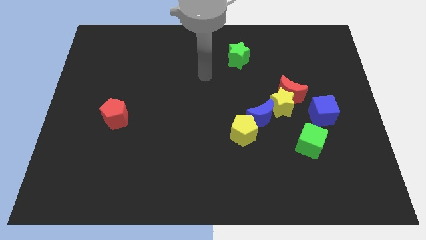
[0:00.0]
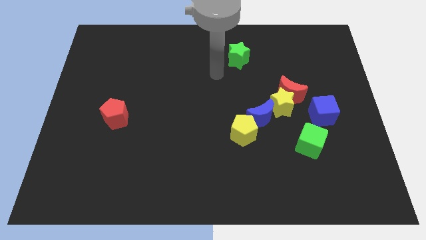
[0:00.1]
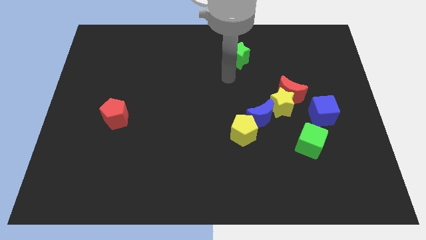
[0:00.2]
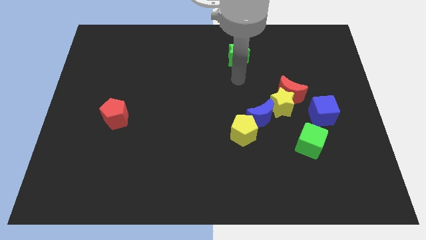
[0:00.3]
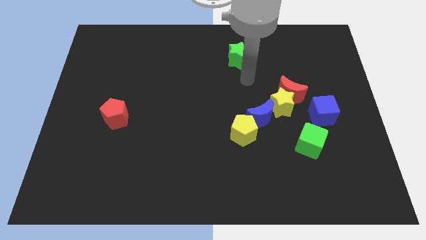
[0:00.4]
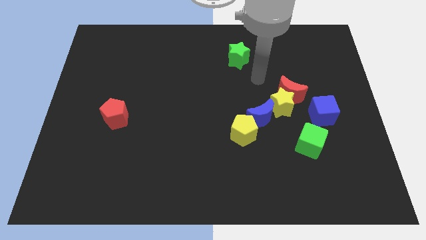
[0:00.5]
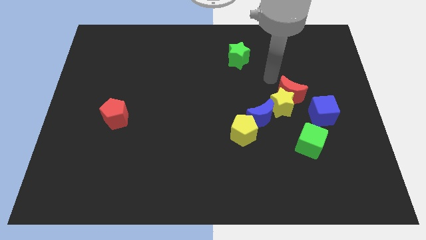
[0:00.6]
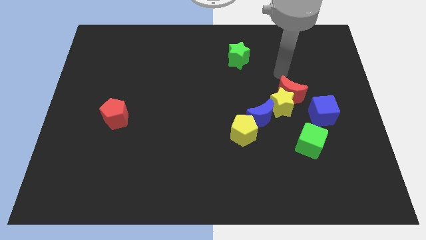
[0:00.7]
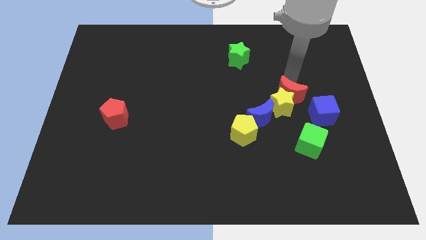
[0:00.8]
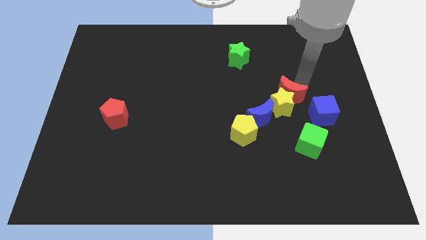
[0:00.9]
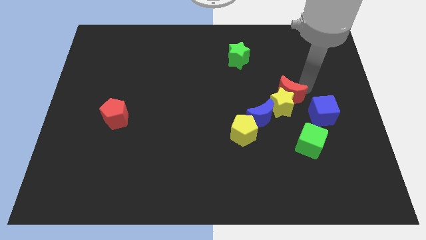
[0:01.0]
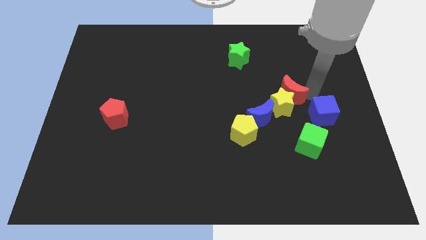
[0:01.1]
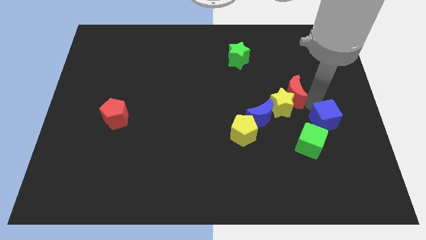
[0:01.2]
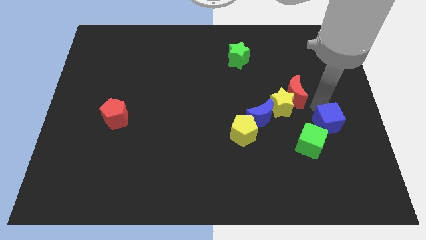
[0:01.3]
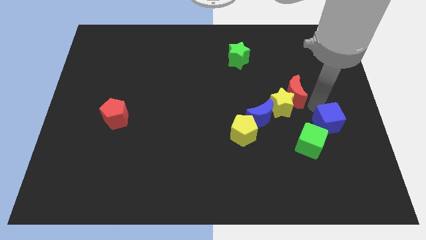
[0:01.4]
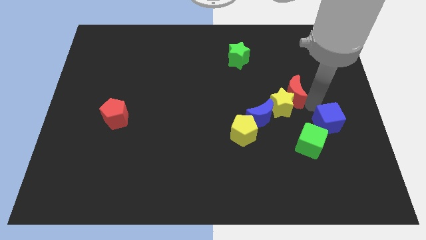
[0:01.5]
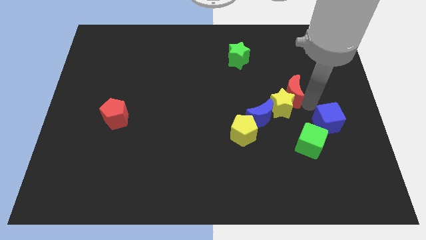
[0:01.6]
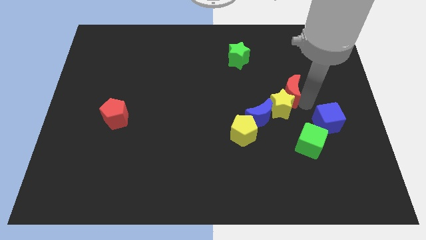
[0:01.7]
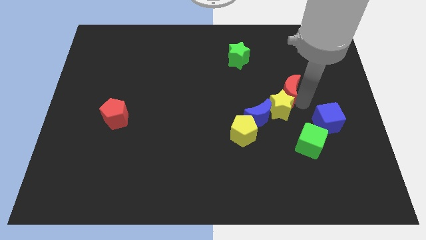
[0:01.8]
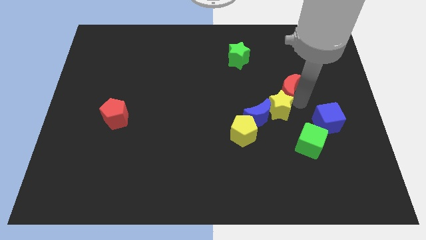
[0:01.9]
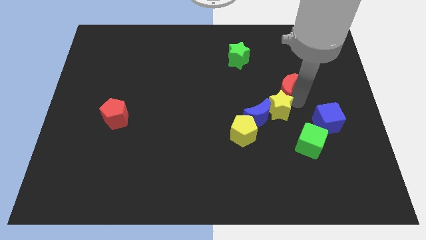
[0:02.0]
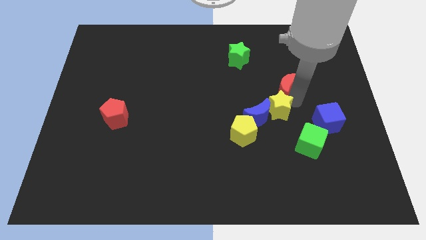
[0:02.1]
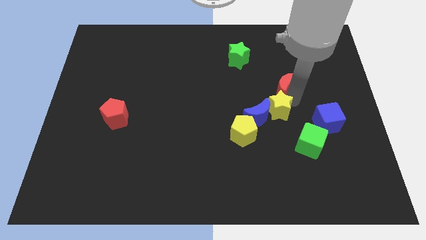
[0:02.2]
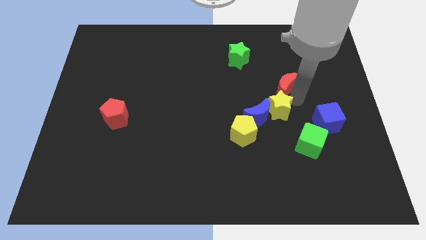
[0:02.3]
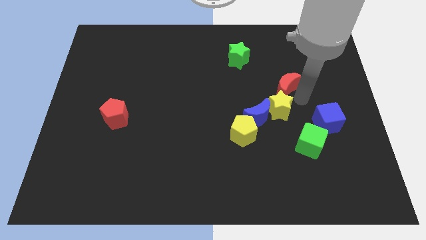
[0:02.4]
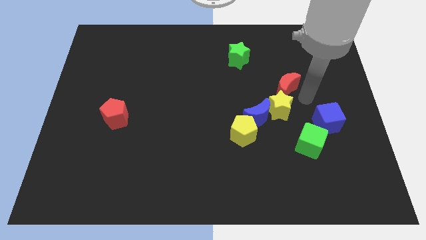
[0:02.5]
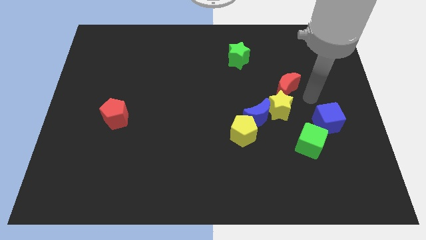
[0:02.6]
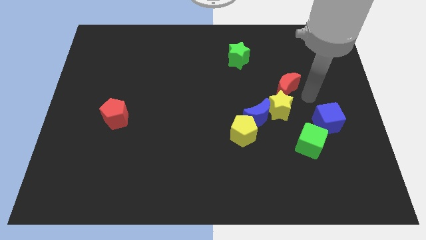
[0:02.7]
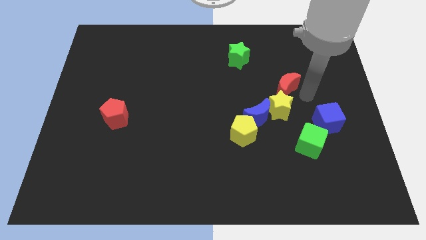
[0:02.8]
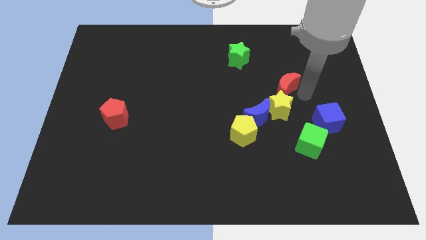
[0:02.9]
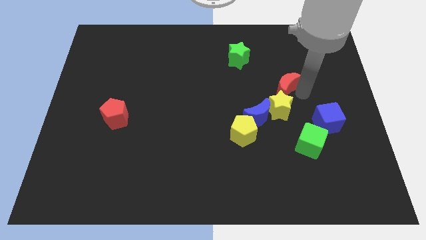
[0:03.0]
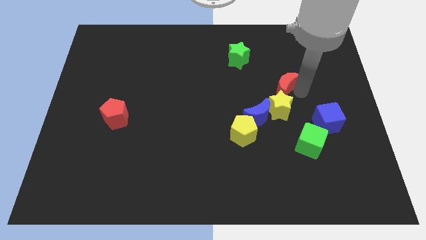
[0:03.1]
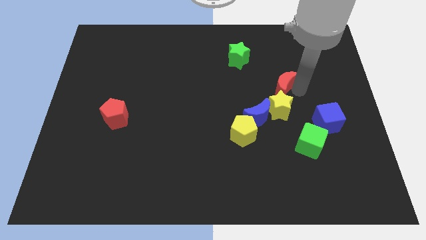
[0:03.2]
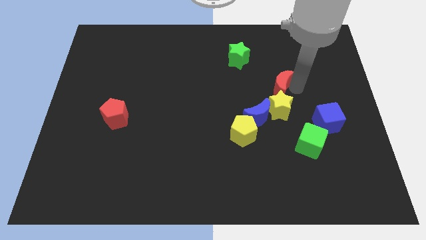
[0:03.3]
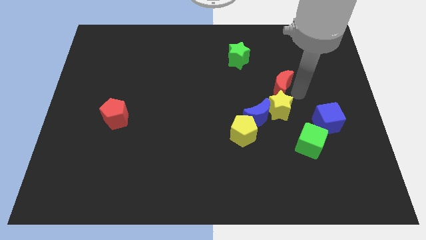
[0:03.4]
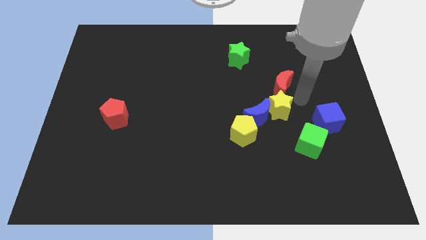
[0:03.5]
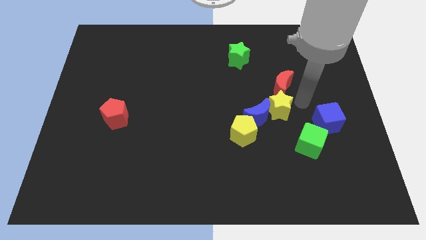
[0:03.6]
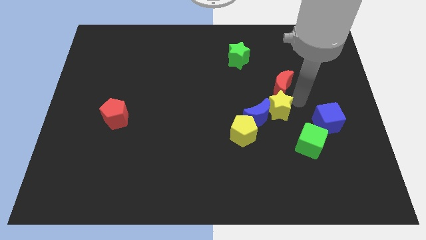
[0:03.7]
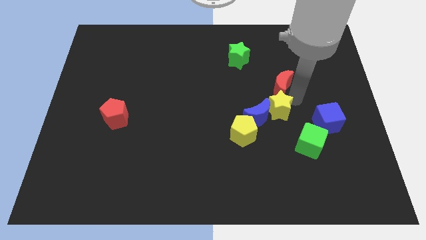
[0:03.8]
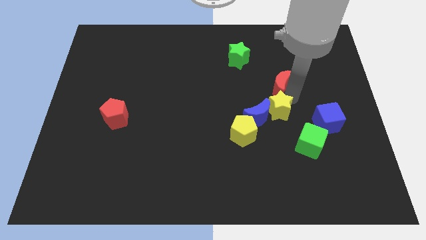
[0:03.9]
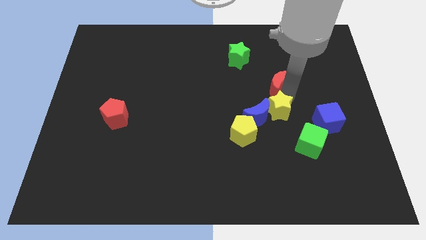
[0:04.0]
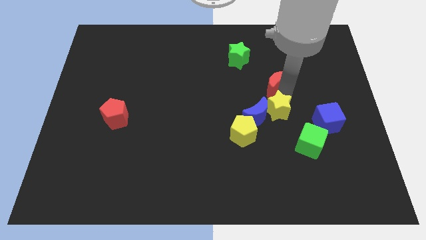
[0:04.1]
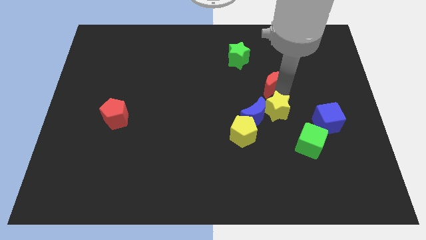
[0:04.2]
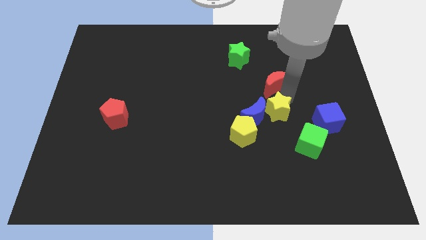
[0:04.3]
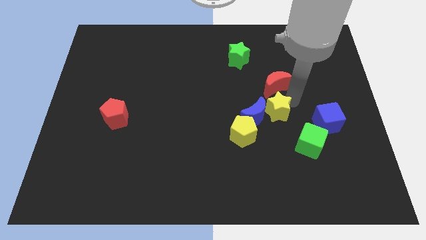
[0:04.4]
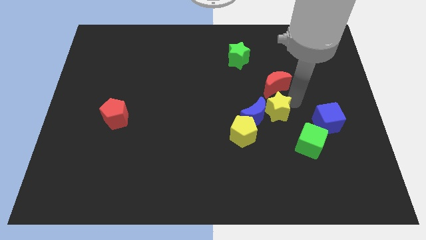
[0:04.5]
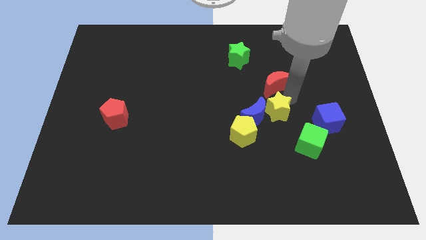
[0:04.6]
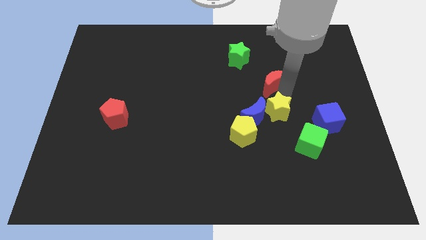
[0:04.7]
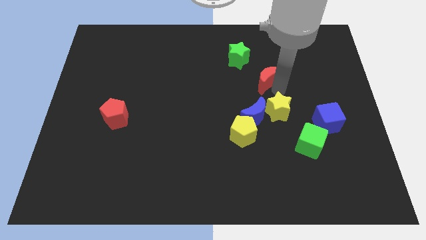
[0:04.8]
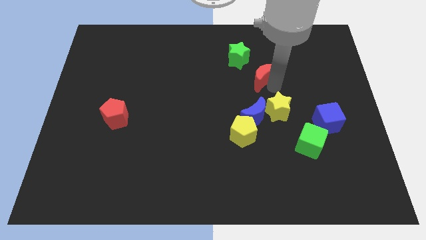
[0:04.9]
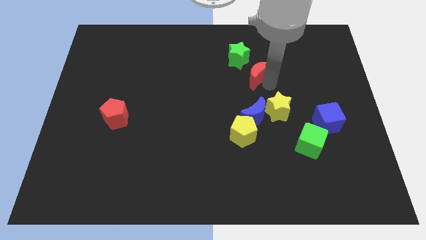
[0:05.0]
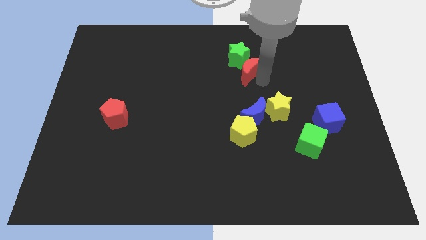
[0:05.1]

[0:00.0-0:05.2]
slide the red moon next to the green star

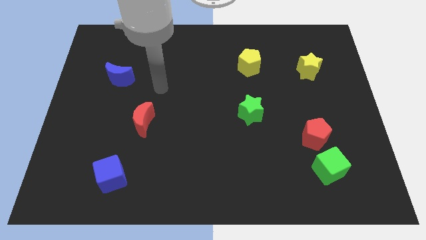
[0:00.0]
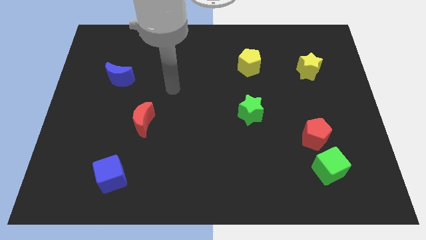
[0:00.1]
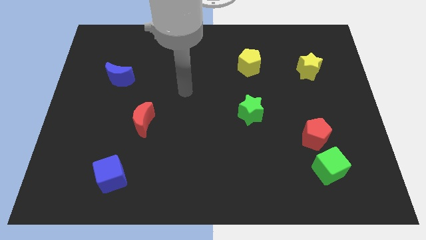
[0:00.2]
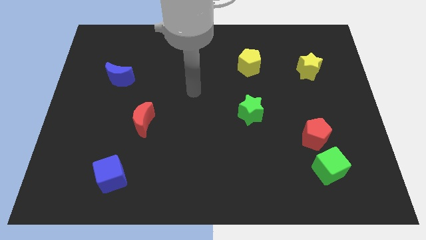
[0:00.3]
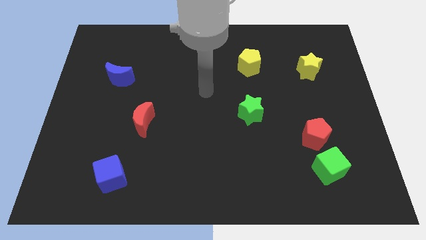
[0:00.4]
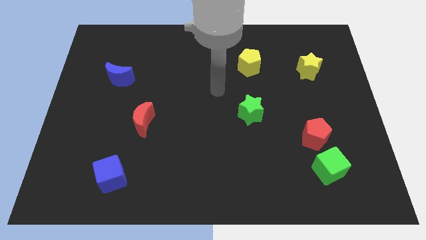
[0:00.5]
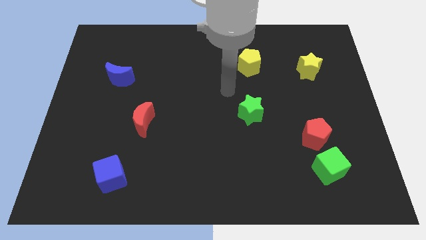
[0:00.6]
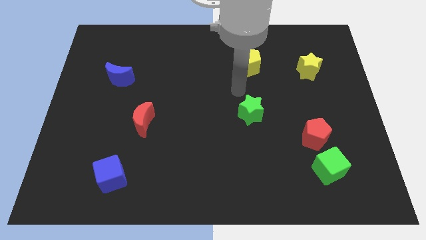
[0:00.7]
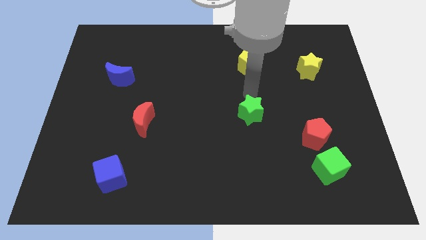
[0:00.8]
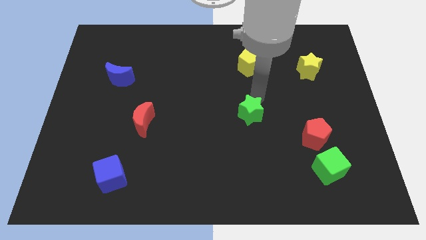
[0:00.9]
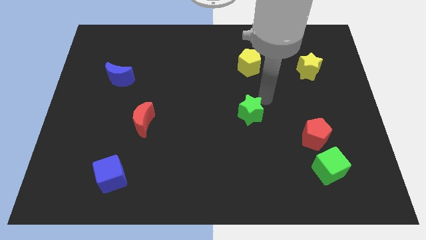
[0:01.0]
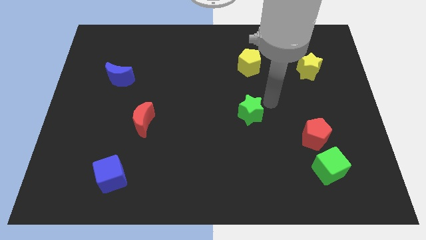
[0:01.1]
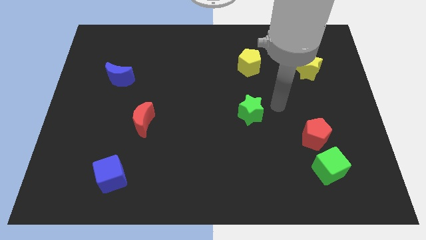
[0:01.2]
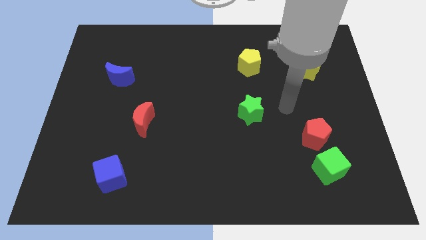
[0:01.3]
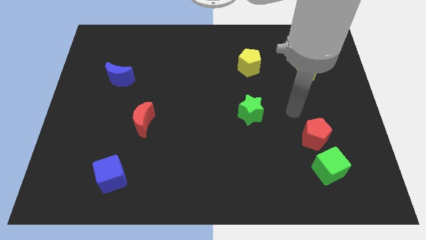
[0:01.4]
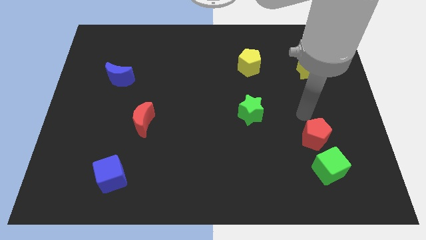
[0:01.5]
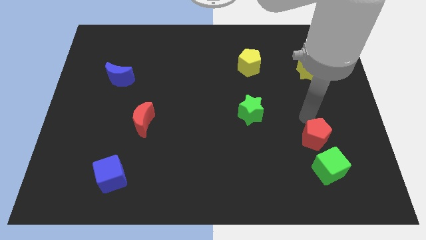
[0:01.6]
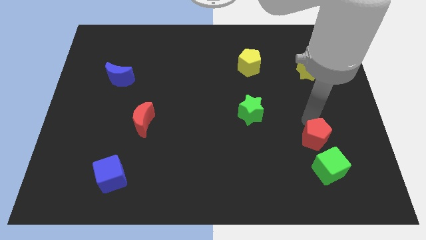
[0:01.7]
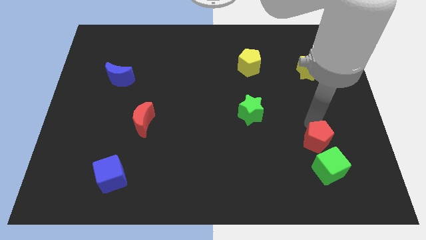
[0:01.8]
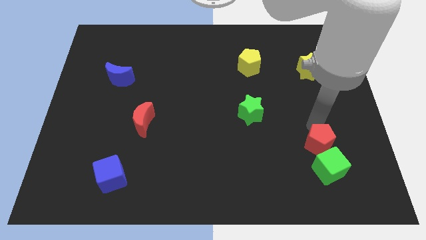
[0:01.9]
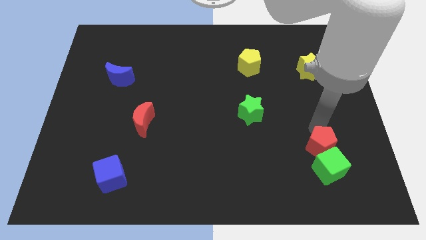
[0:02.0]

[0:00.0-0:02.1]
push the red pentagon next to the green cube
